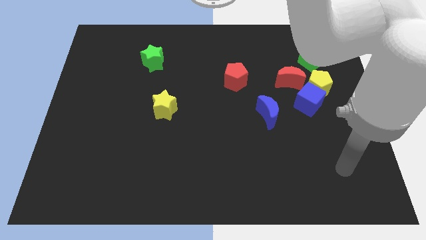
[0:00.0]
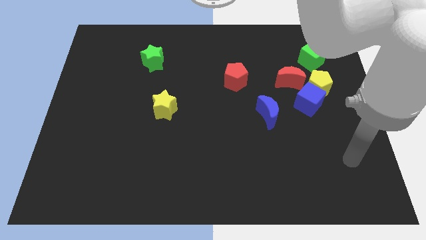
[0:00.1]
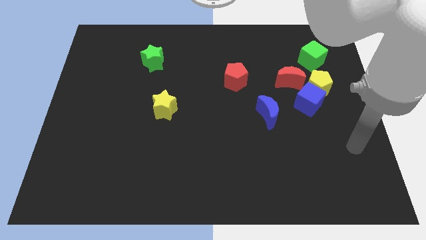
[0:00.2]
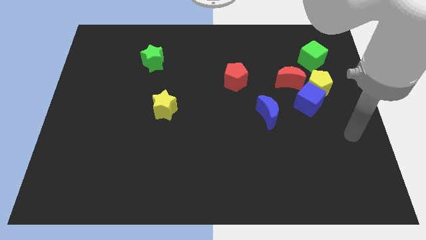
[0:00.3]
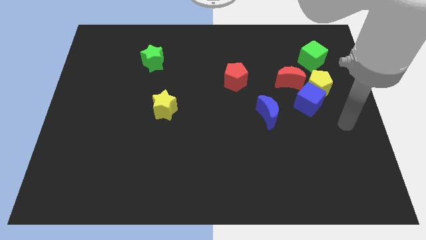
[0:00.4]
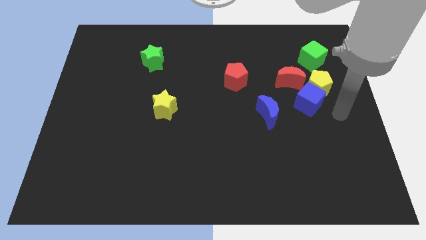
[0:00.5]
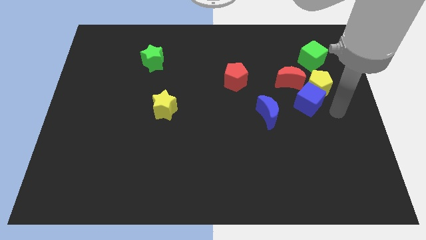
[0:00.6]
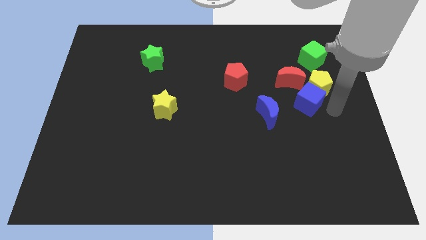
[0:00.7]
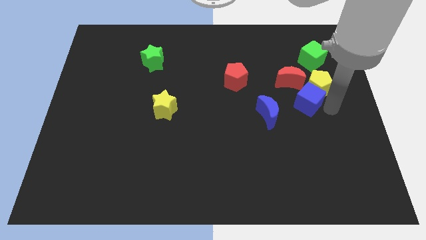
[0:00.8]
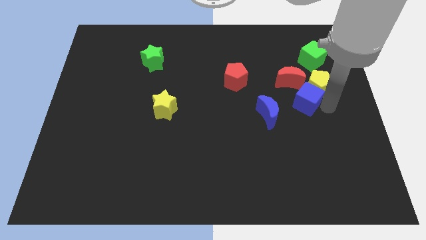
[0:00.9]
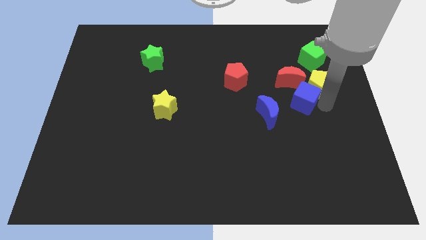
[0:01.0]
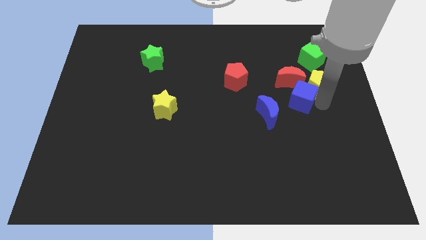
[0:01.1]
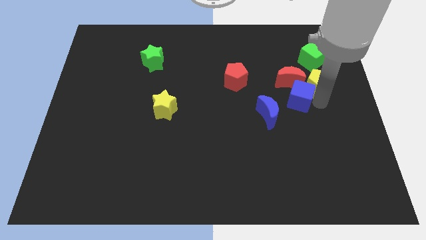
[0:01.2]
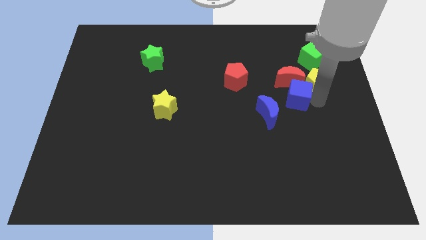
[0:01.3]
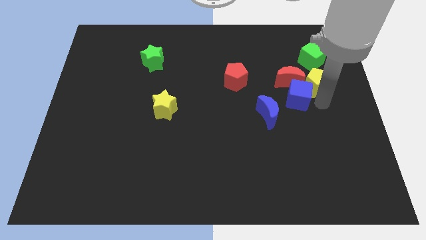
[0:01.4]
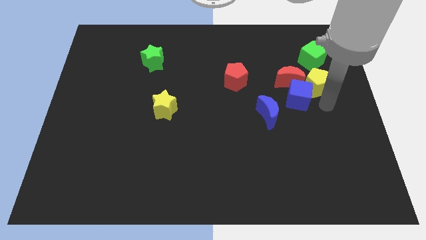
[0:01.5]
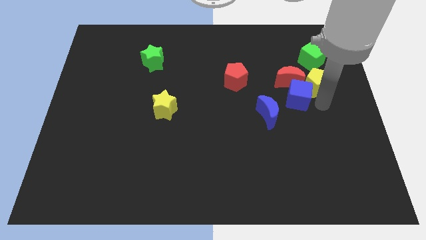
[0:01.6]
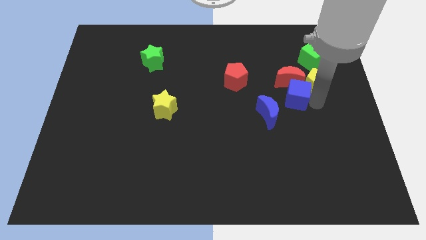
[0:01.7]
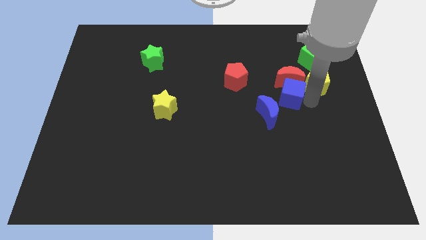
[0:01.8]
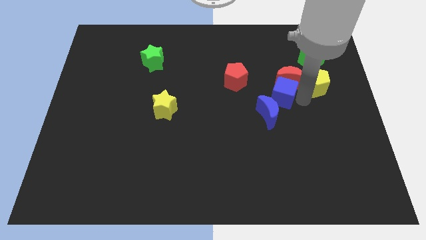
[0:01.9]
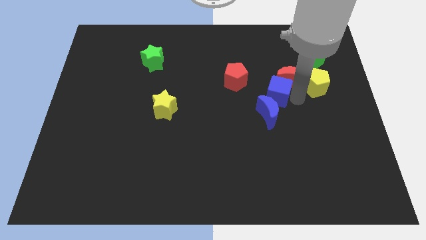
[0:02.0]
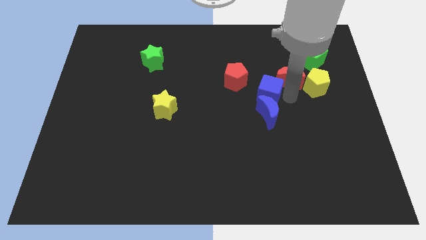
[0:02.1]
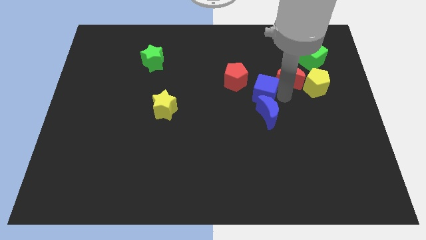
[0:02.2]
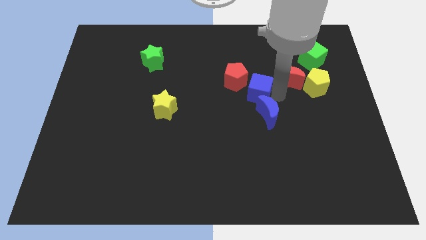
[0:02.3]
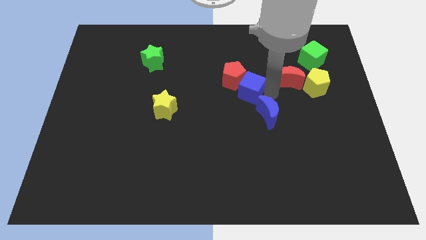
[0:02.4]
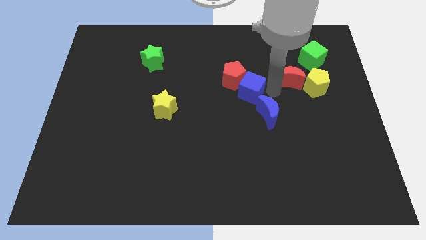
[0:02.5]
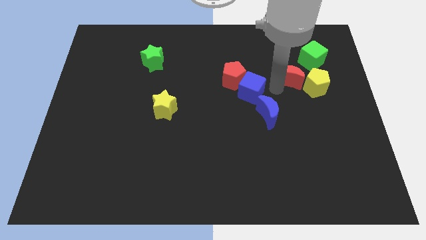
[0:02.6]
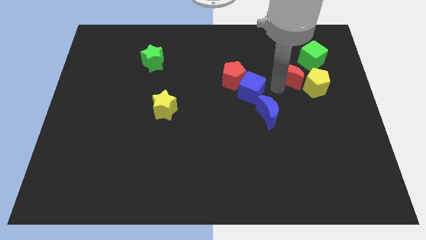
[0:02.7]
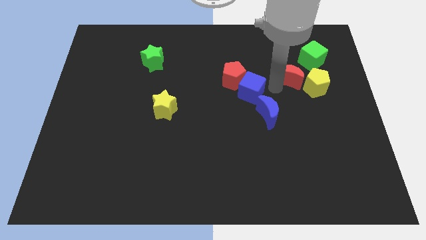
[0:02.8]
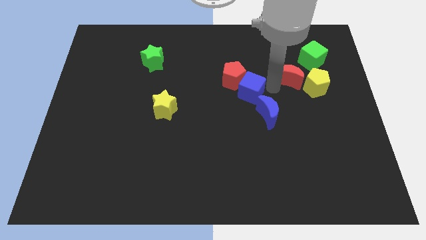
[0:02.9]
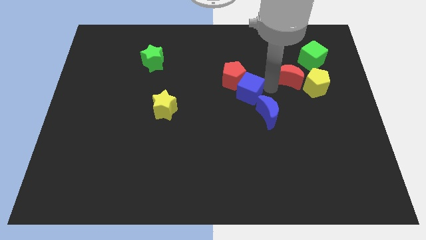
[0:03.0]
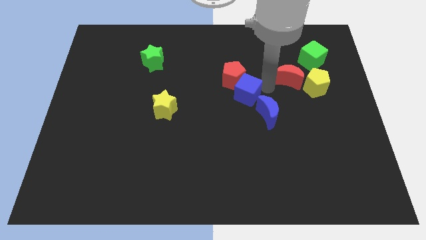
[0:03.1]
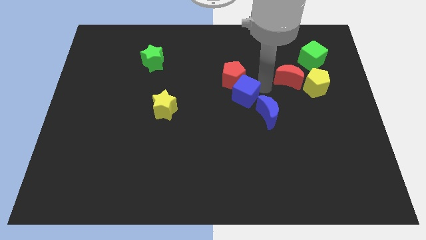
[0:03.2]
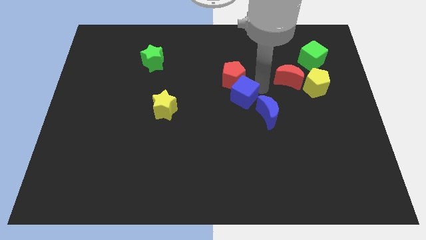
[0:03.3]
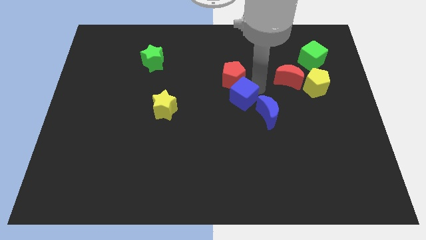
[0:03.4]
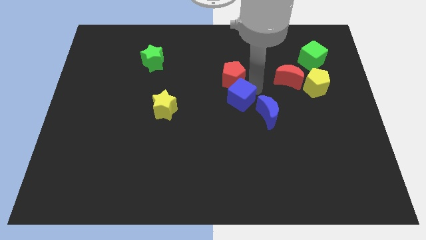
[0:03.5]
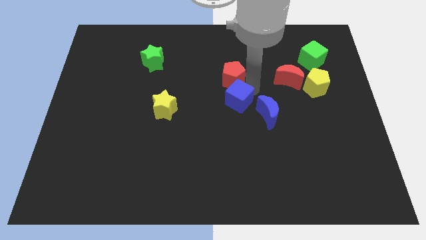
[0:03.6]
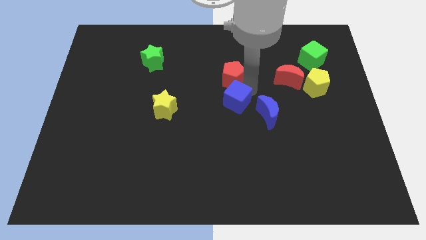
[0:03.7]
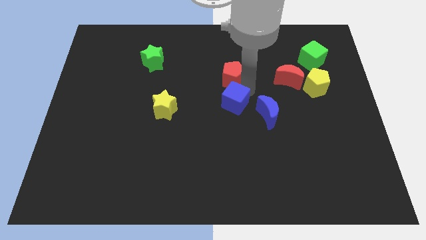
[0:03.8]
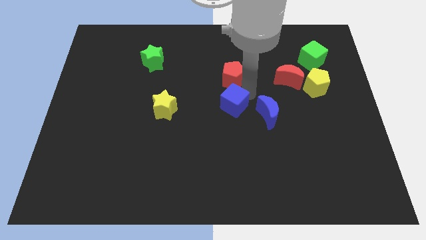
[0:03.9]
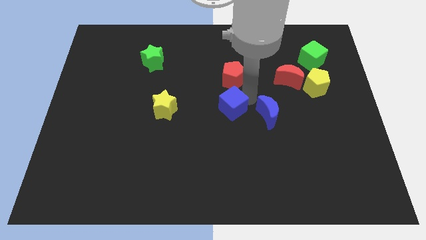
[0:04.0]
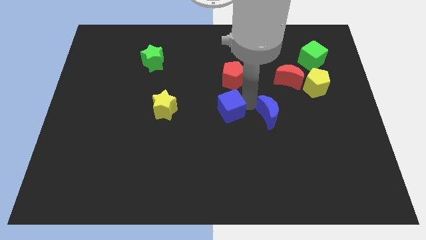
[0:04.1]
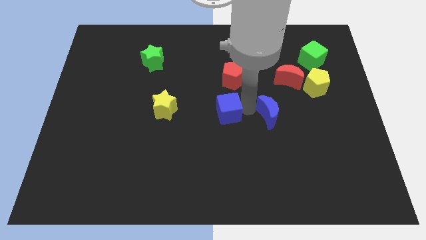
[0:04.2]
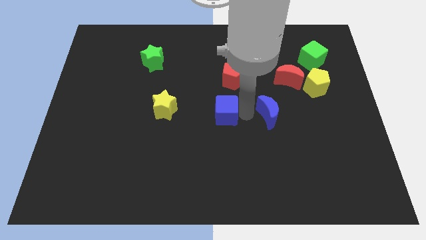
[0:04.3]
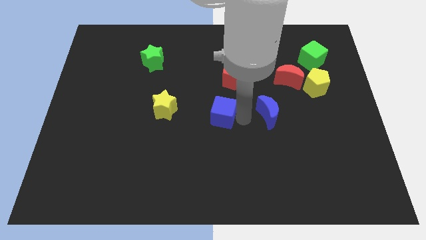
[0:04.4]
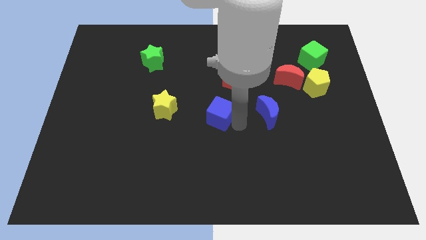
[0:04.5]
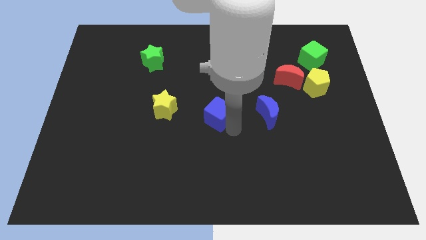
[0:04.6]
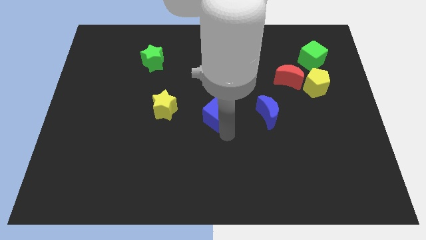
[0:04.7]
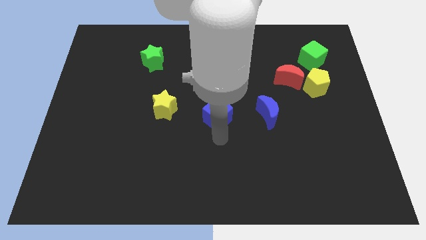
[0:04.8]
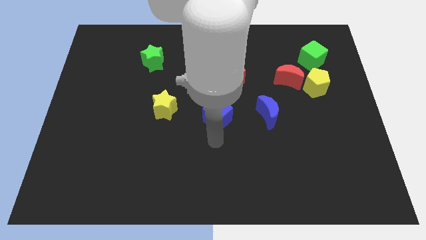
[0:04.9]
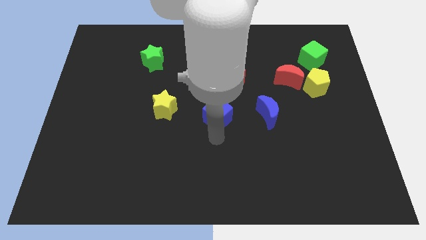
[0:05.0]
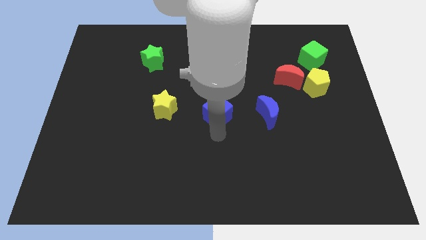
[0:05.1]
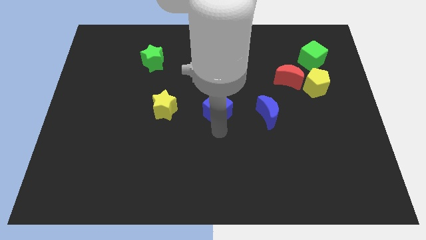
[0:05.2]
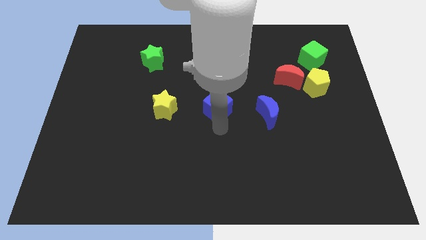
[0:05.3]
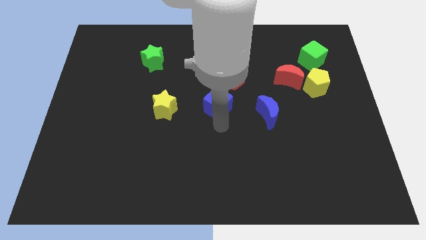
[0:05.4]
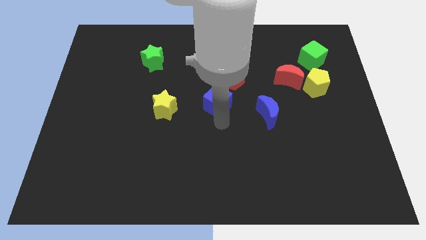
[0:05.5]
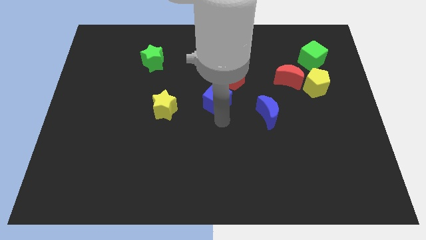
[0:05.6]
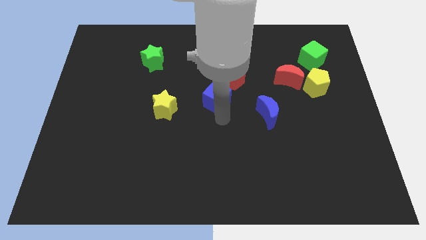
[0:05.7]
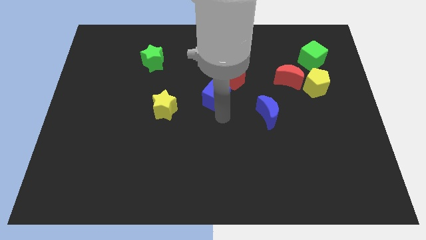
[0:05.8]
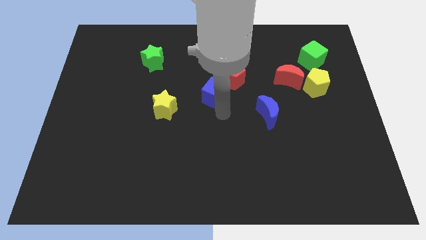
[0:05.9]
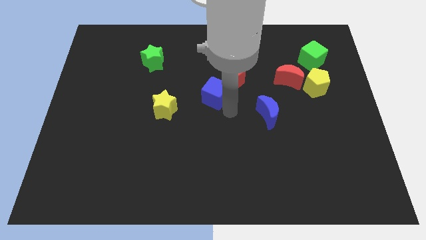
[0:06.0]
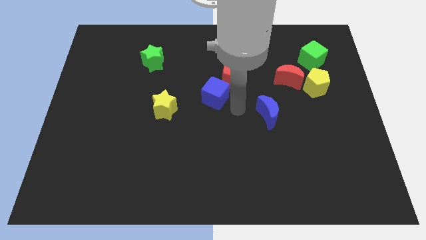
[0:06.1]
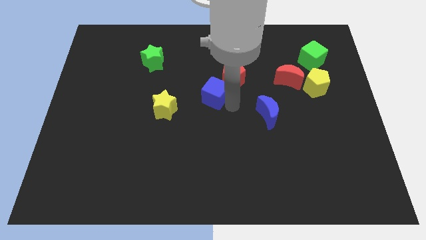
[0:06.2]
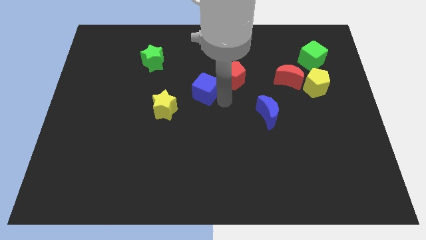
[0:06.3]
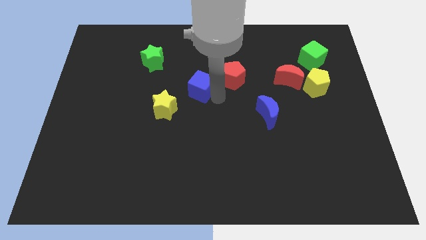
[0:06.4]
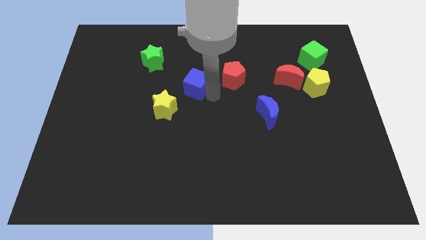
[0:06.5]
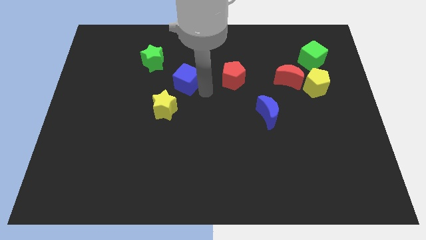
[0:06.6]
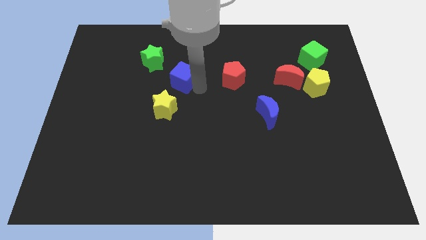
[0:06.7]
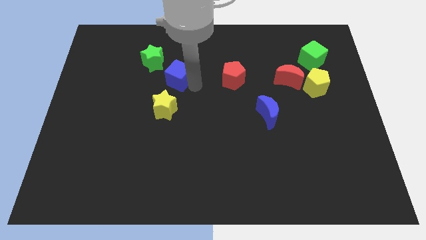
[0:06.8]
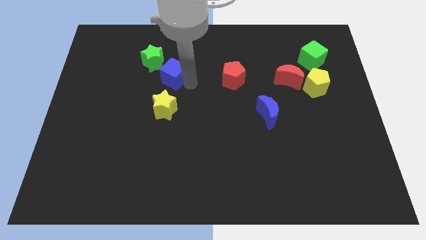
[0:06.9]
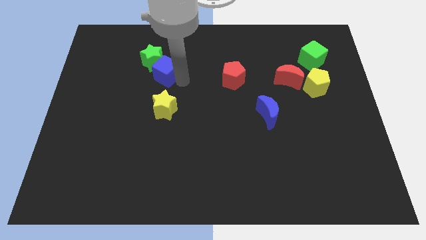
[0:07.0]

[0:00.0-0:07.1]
put the blue cube to the green star
